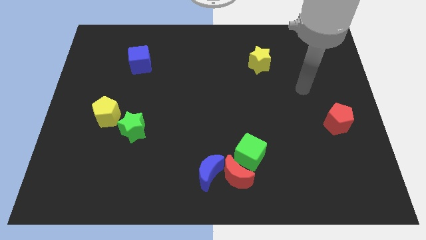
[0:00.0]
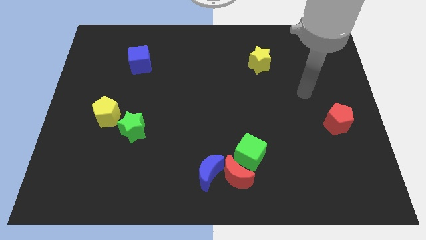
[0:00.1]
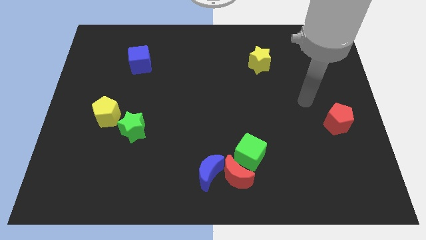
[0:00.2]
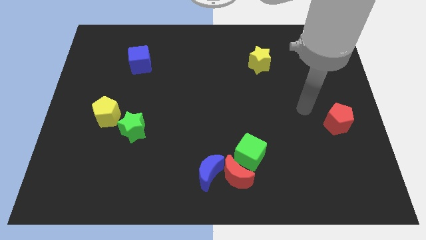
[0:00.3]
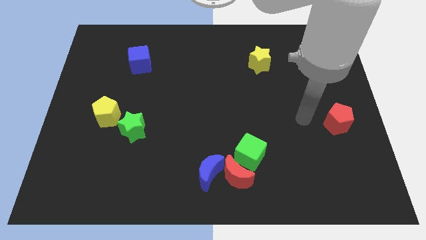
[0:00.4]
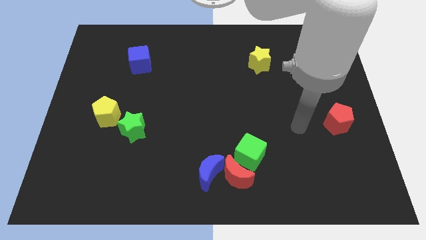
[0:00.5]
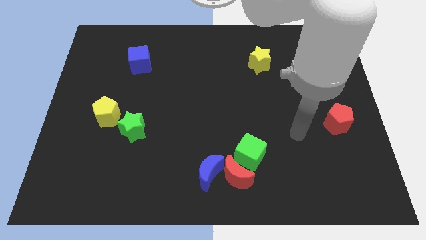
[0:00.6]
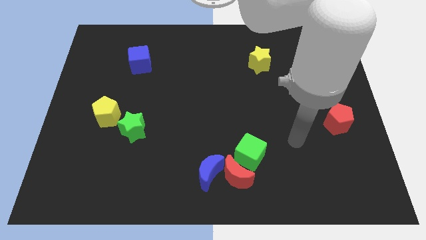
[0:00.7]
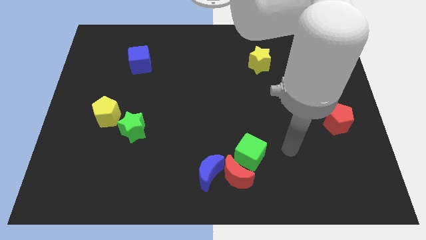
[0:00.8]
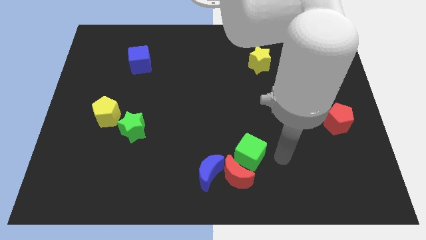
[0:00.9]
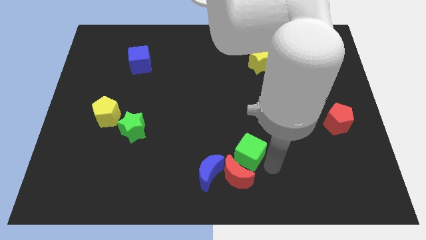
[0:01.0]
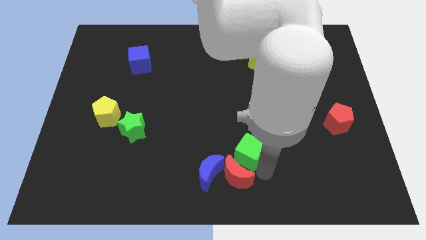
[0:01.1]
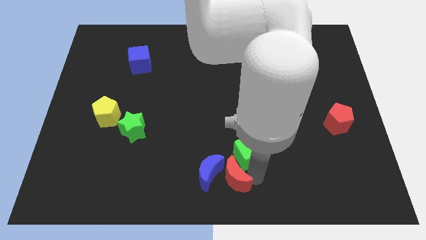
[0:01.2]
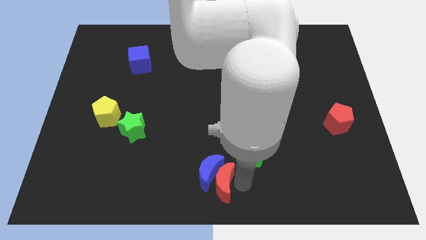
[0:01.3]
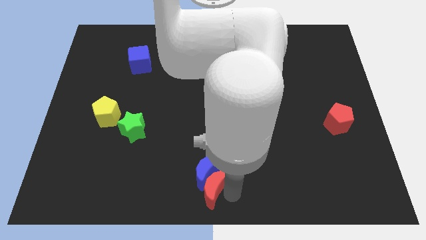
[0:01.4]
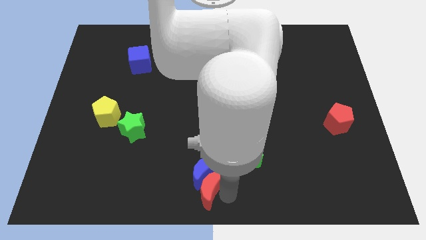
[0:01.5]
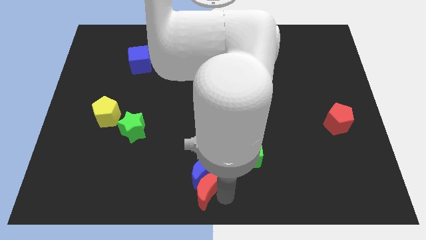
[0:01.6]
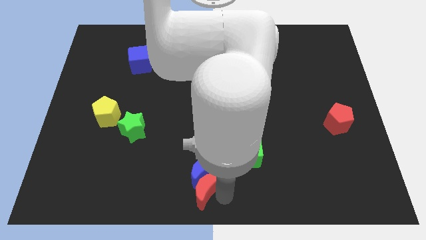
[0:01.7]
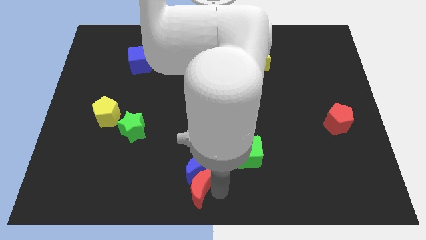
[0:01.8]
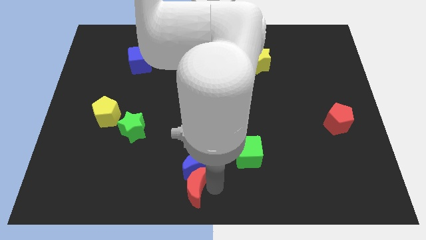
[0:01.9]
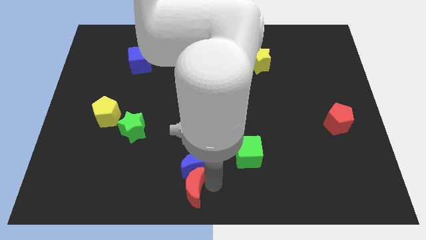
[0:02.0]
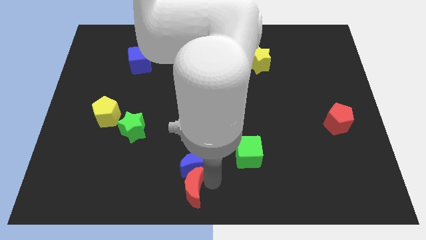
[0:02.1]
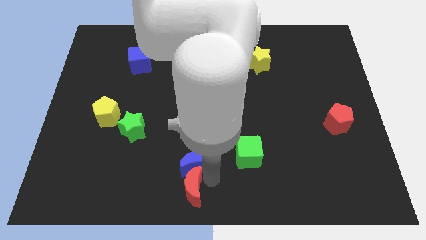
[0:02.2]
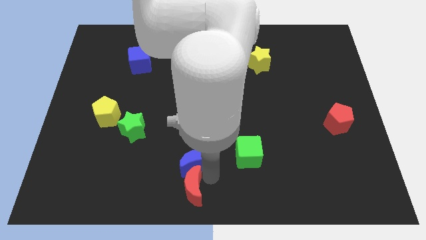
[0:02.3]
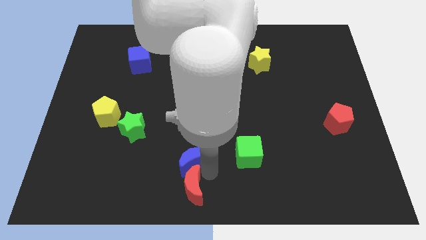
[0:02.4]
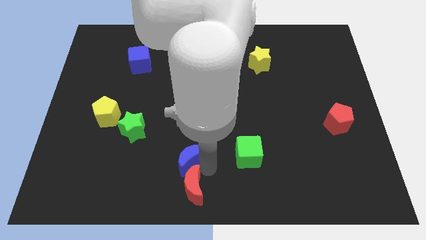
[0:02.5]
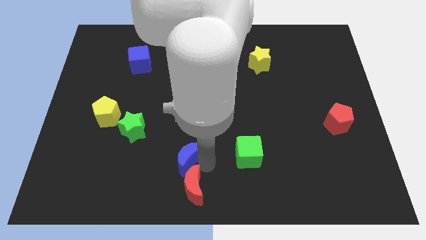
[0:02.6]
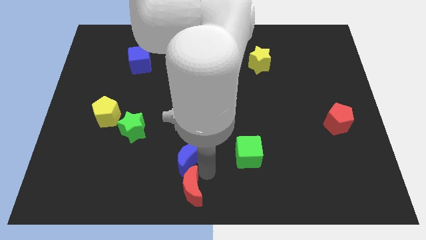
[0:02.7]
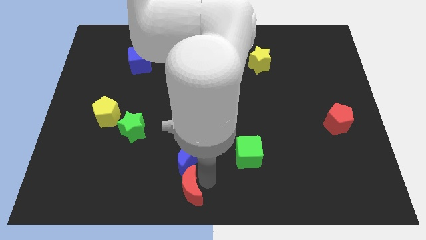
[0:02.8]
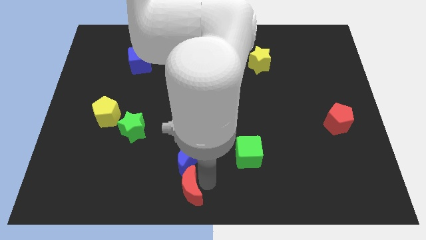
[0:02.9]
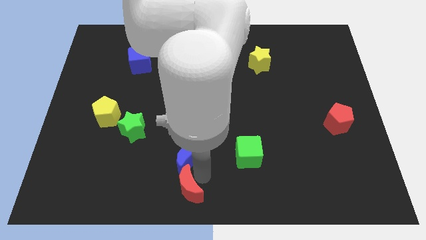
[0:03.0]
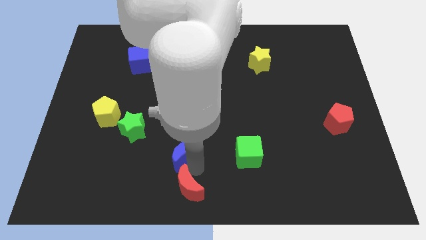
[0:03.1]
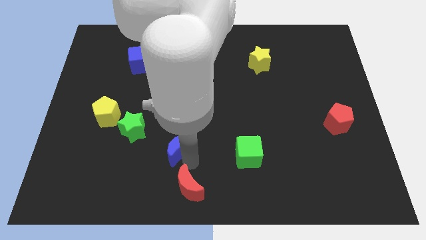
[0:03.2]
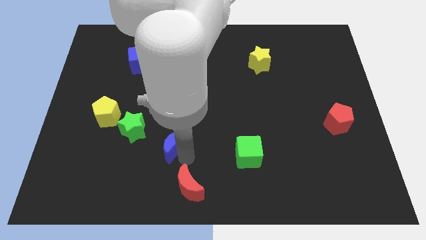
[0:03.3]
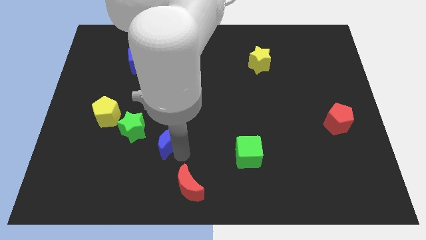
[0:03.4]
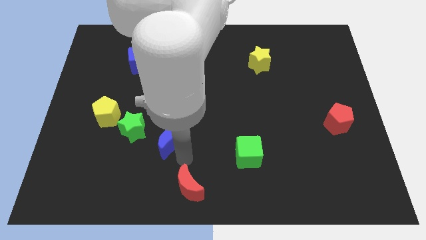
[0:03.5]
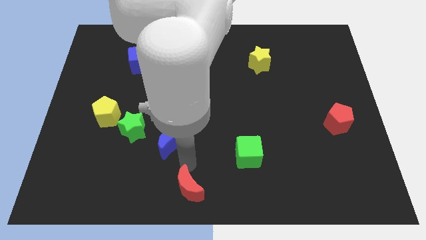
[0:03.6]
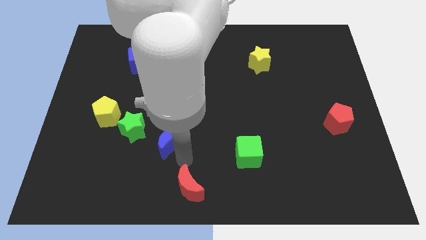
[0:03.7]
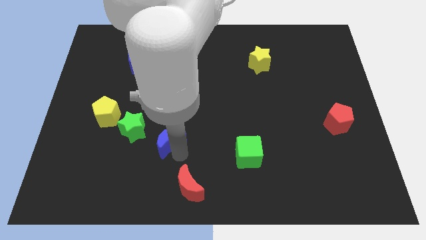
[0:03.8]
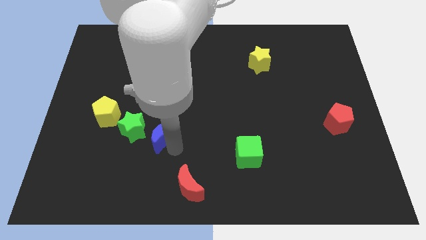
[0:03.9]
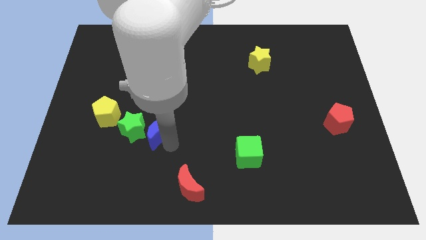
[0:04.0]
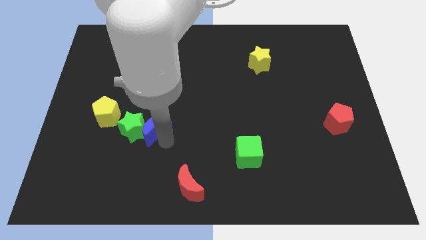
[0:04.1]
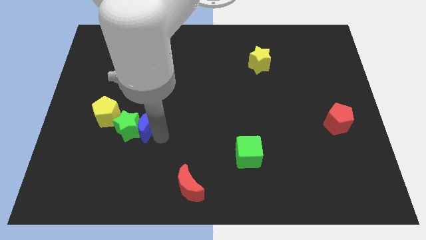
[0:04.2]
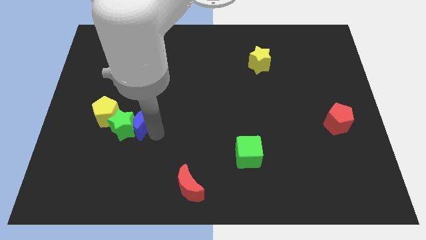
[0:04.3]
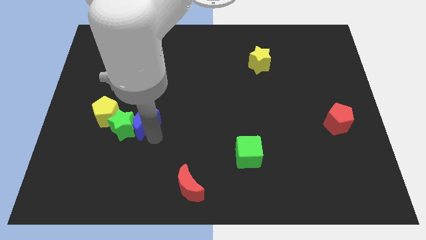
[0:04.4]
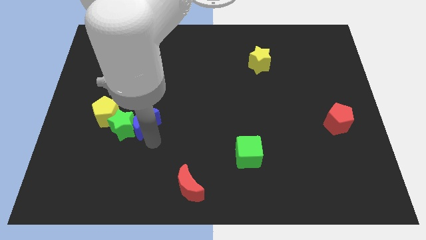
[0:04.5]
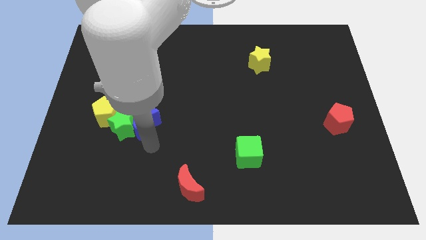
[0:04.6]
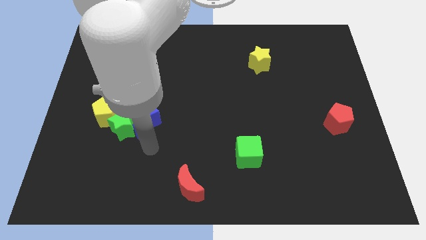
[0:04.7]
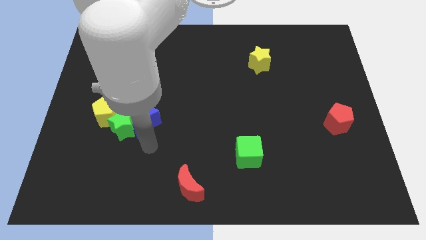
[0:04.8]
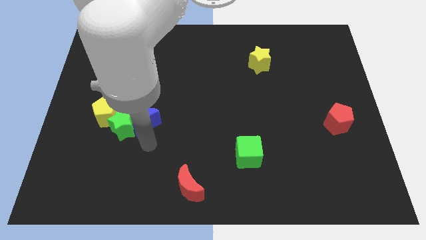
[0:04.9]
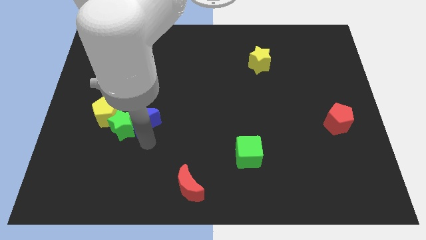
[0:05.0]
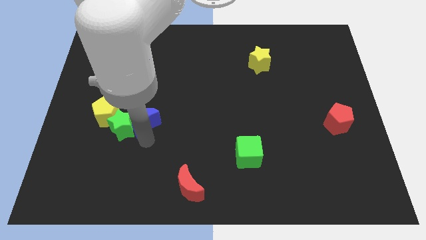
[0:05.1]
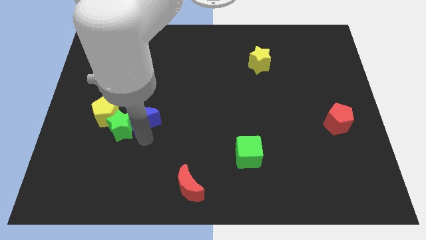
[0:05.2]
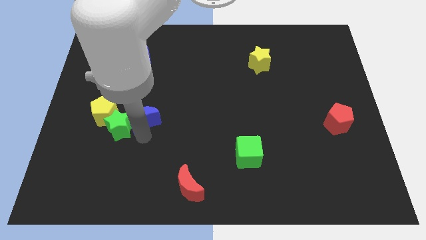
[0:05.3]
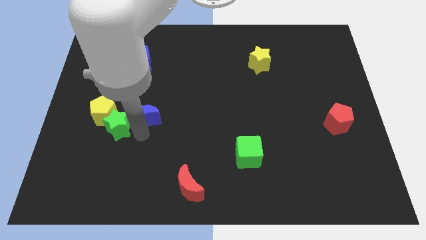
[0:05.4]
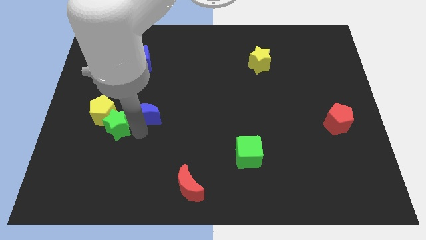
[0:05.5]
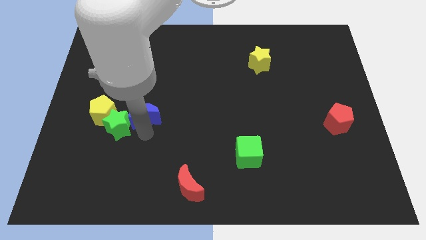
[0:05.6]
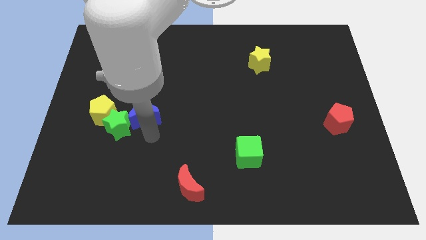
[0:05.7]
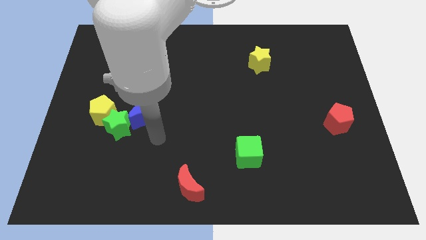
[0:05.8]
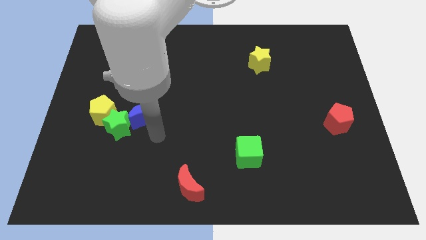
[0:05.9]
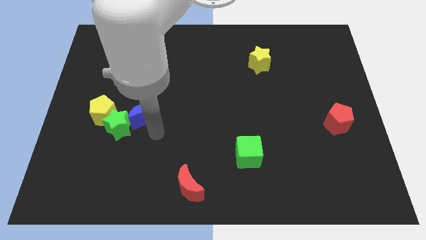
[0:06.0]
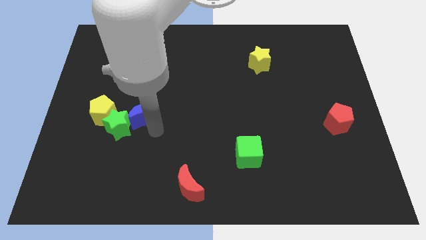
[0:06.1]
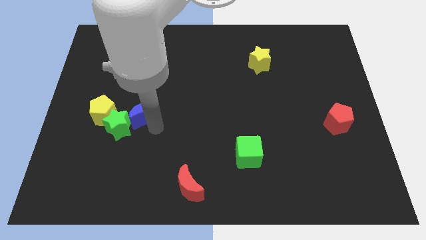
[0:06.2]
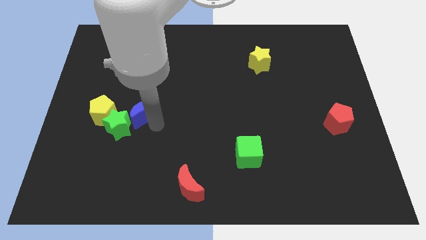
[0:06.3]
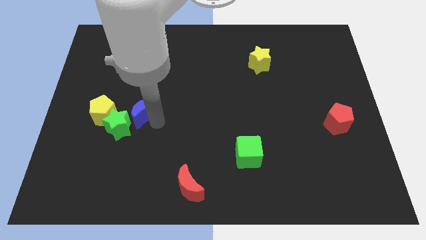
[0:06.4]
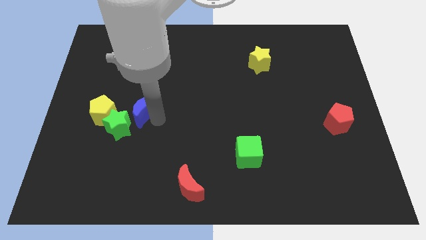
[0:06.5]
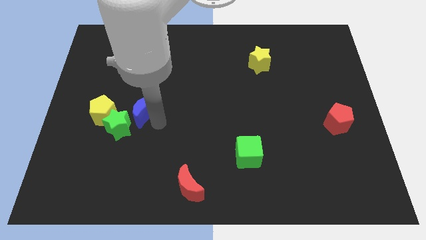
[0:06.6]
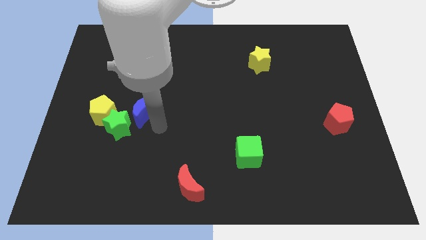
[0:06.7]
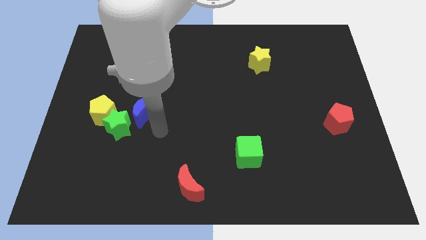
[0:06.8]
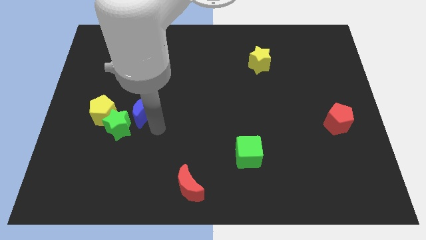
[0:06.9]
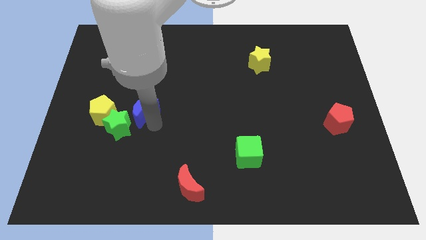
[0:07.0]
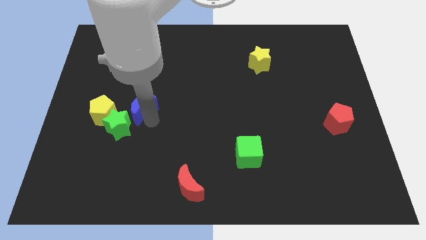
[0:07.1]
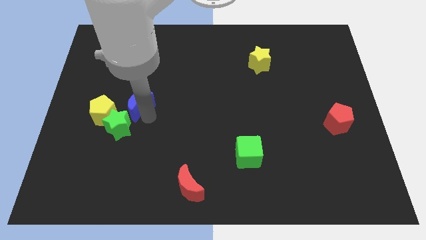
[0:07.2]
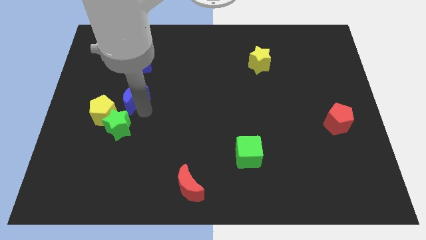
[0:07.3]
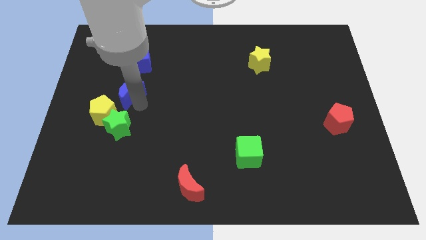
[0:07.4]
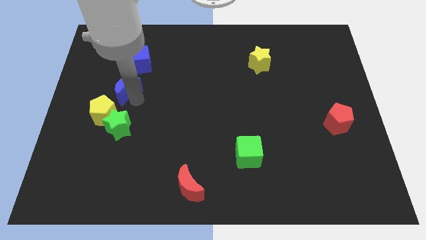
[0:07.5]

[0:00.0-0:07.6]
push the blue moon above the yellow pentagon
